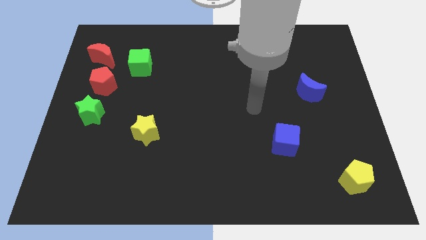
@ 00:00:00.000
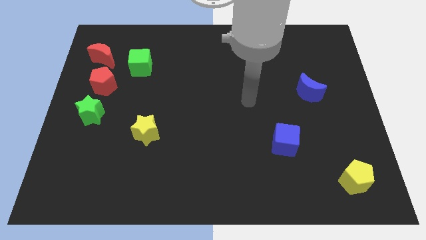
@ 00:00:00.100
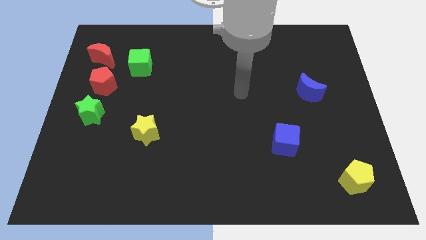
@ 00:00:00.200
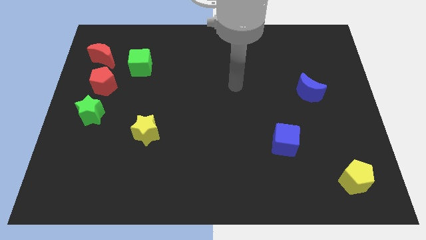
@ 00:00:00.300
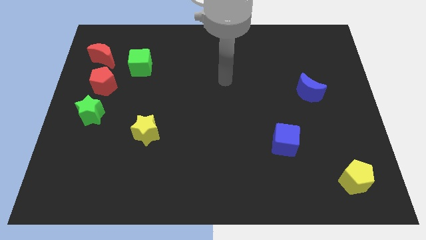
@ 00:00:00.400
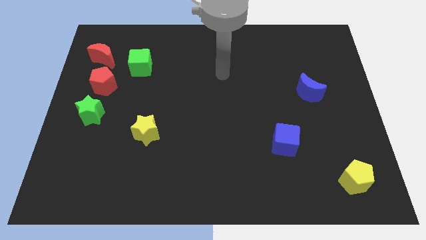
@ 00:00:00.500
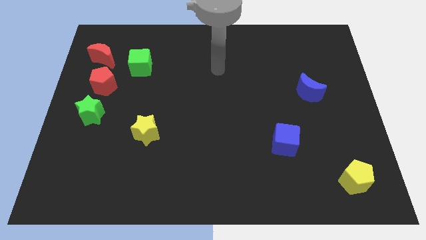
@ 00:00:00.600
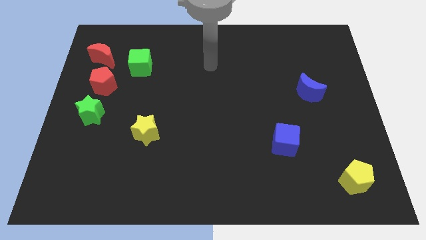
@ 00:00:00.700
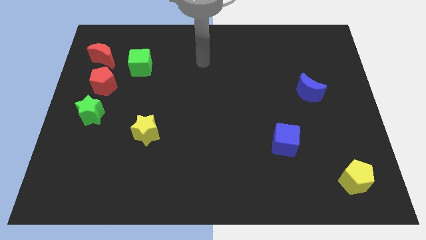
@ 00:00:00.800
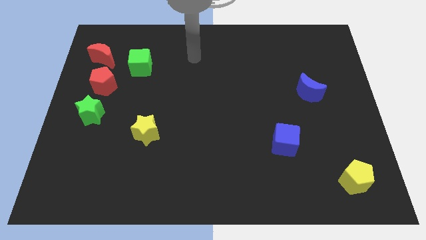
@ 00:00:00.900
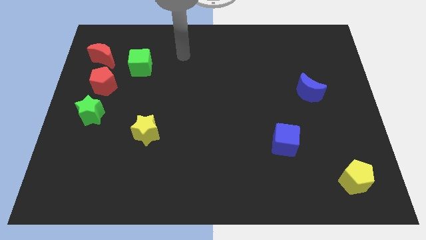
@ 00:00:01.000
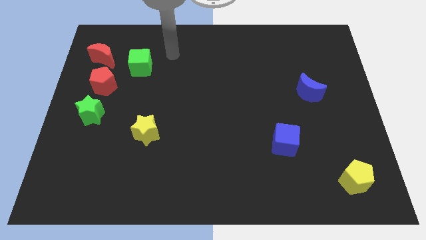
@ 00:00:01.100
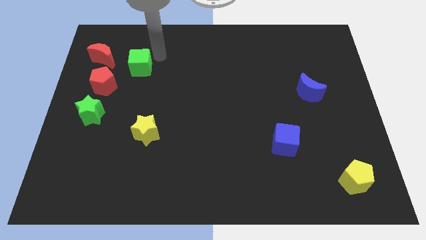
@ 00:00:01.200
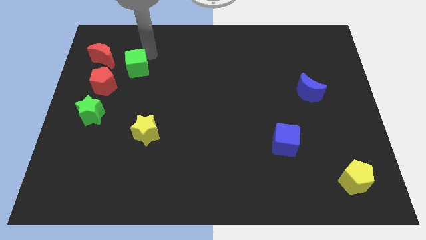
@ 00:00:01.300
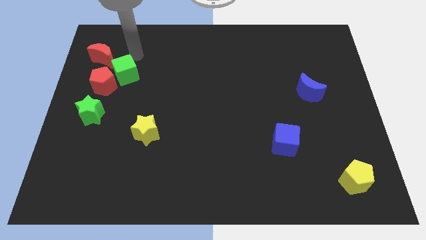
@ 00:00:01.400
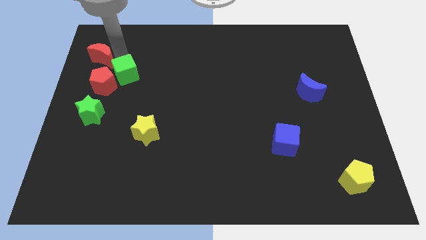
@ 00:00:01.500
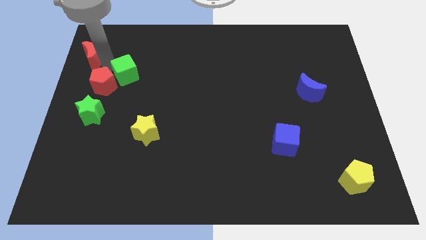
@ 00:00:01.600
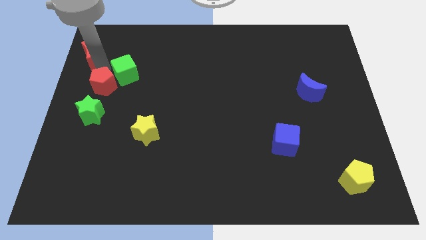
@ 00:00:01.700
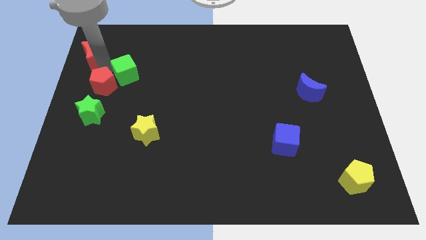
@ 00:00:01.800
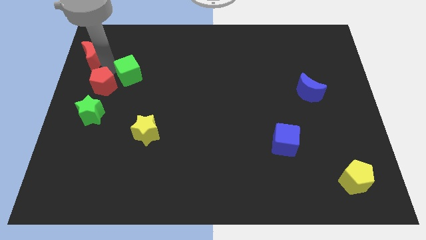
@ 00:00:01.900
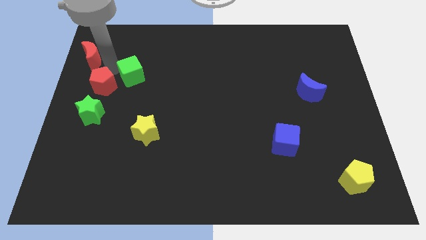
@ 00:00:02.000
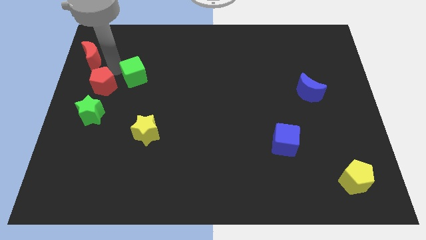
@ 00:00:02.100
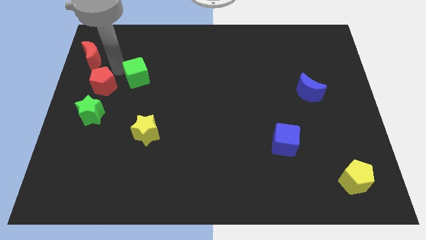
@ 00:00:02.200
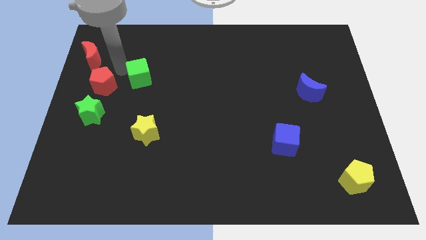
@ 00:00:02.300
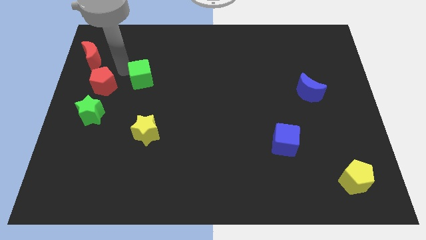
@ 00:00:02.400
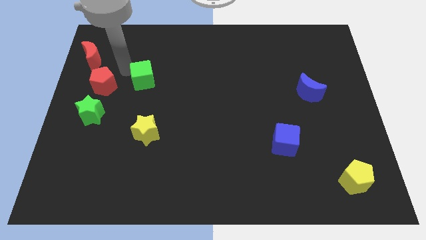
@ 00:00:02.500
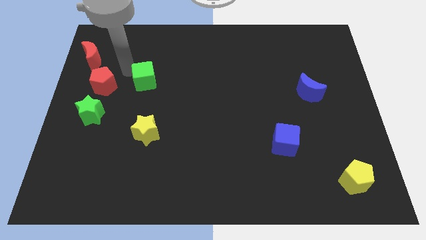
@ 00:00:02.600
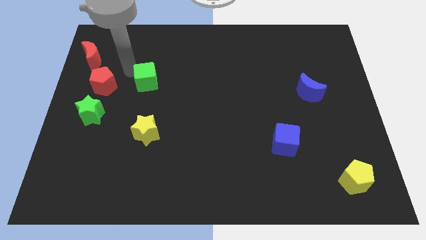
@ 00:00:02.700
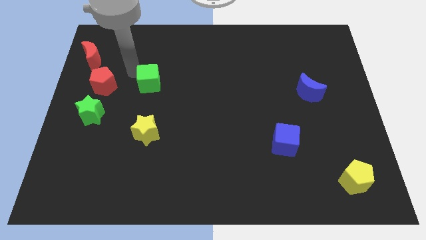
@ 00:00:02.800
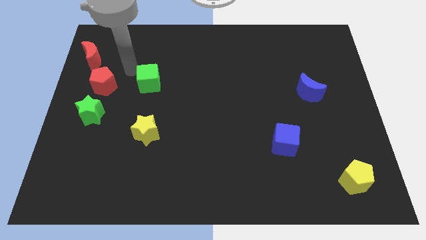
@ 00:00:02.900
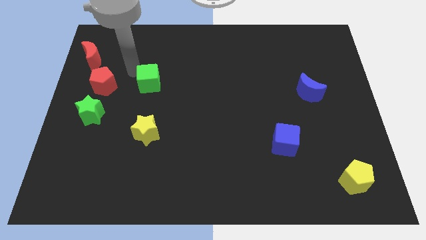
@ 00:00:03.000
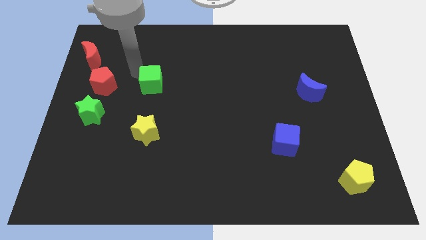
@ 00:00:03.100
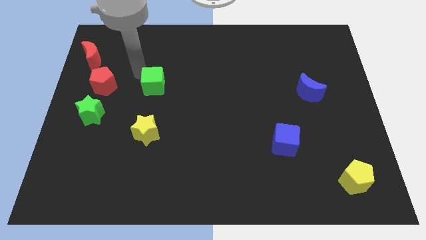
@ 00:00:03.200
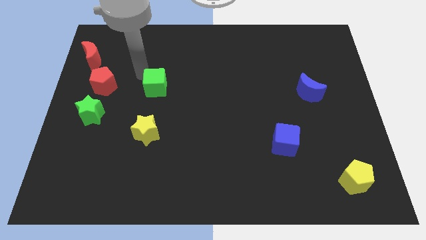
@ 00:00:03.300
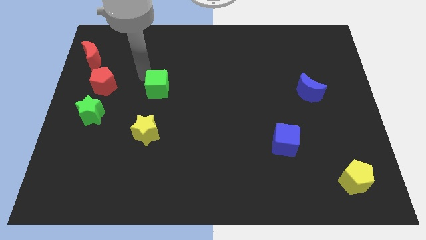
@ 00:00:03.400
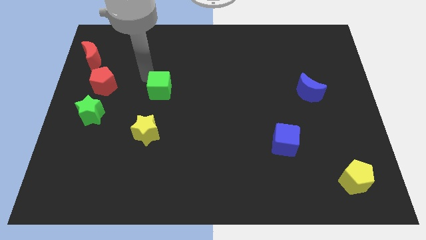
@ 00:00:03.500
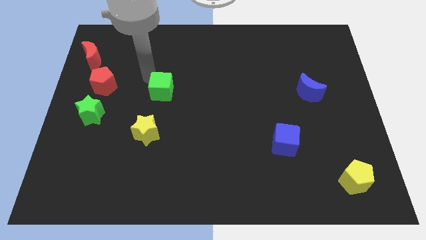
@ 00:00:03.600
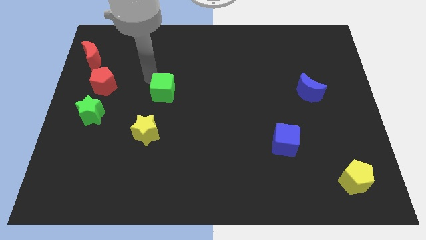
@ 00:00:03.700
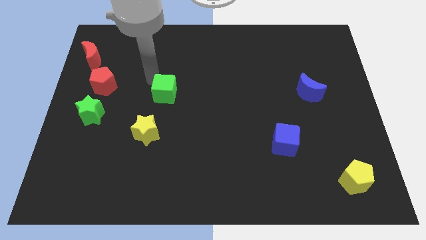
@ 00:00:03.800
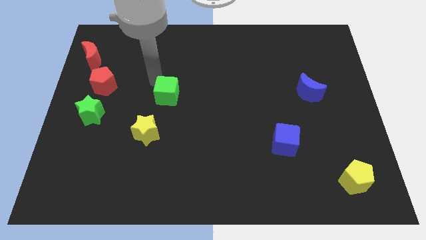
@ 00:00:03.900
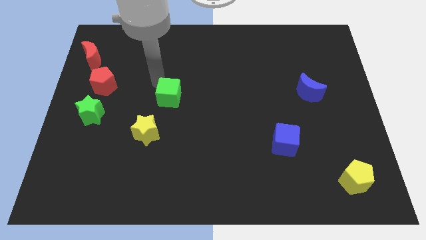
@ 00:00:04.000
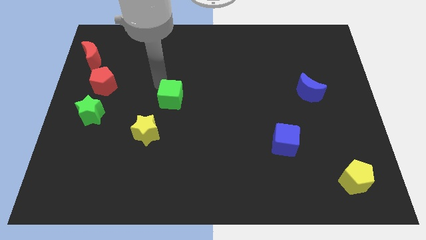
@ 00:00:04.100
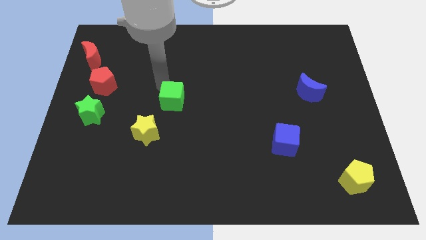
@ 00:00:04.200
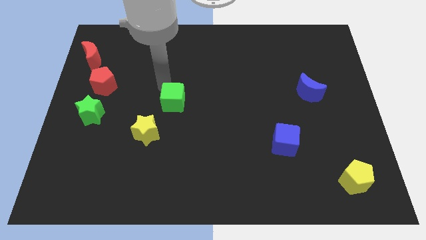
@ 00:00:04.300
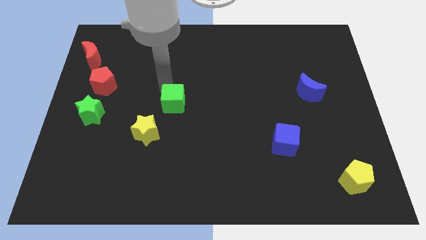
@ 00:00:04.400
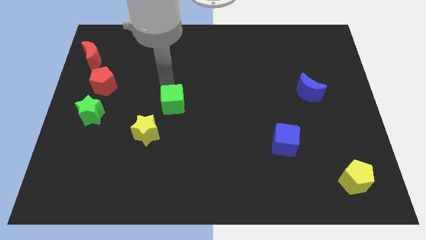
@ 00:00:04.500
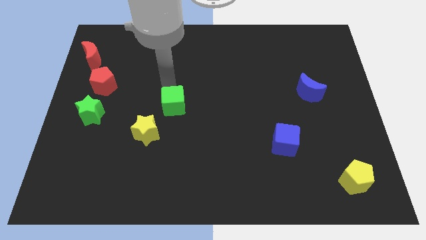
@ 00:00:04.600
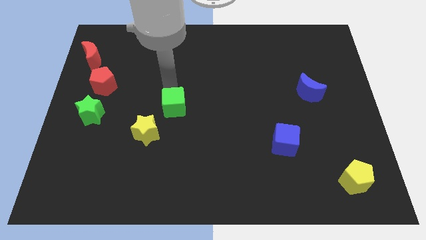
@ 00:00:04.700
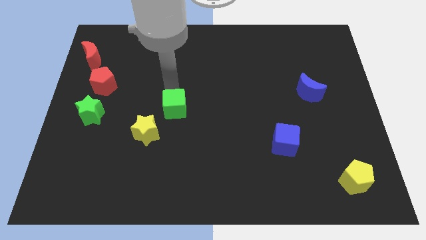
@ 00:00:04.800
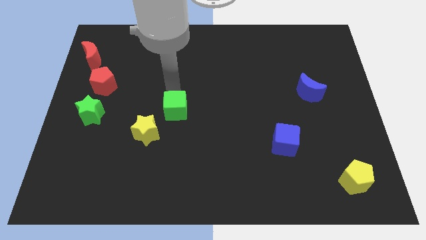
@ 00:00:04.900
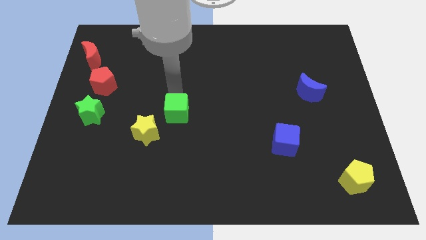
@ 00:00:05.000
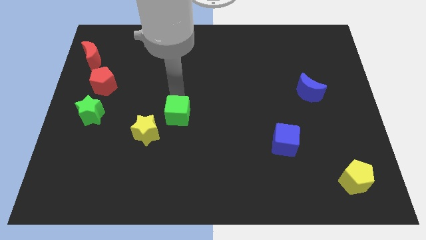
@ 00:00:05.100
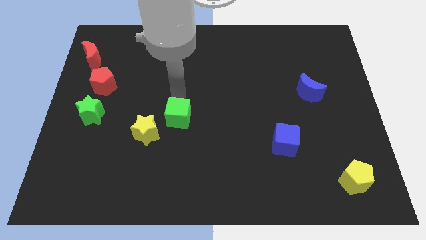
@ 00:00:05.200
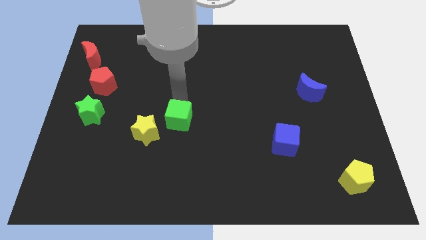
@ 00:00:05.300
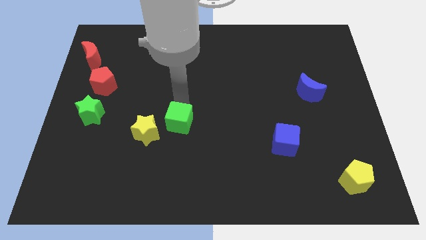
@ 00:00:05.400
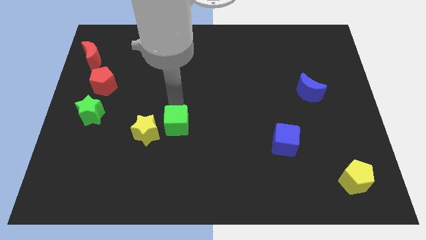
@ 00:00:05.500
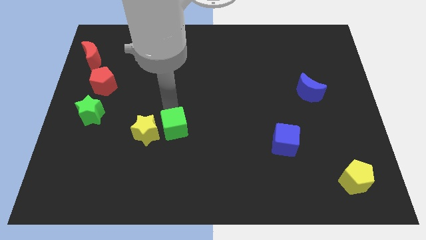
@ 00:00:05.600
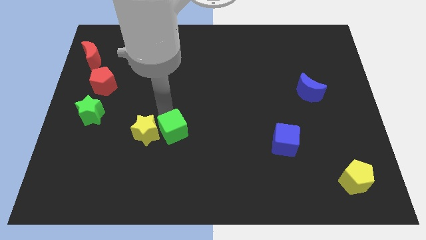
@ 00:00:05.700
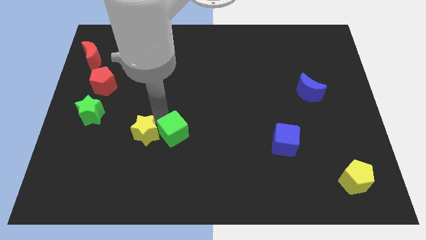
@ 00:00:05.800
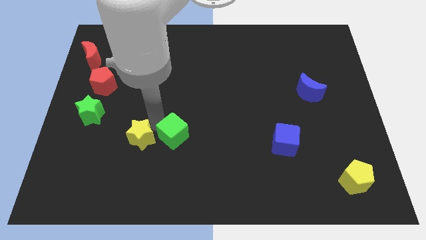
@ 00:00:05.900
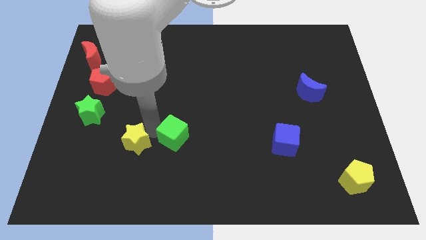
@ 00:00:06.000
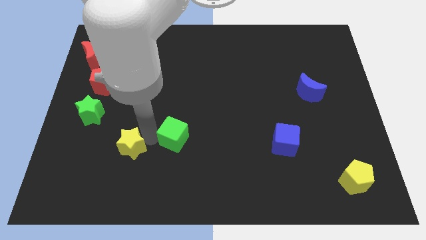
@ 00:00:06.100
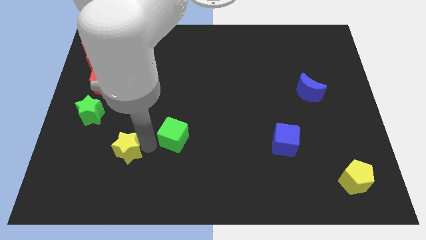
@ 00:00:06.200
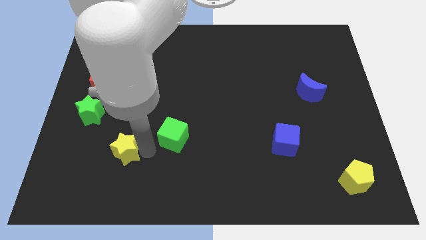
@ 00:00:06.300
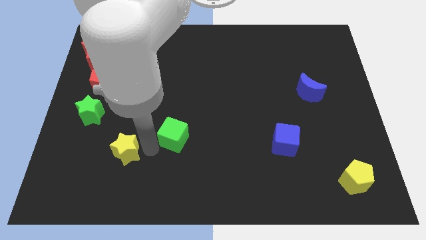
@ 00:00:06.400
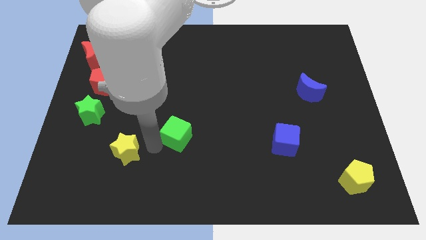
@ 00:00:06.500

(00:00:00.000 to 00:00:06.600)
push the green cube diagonally downwards and to the right

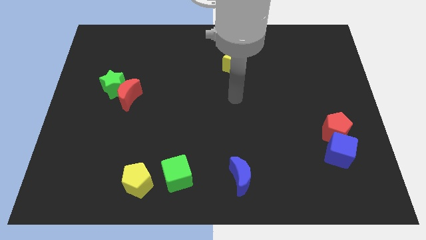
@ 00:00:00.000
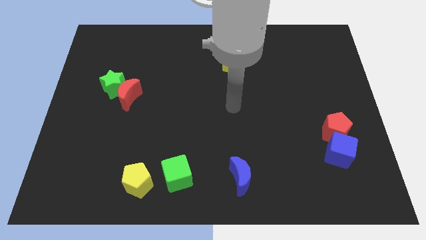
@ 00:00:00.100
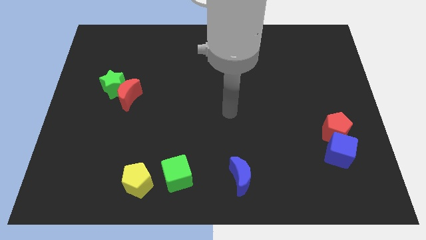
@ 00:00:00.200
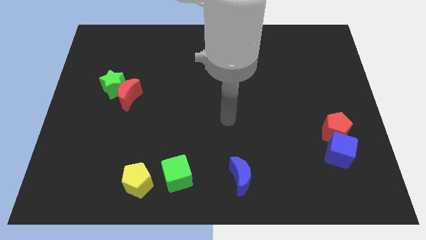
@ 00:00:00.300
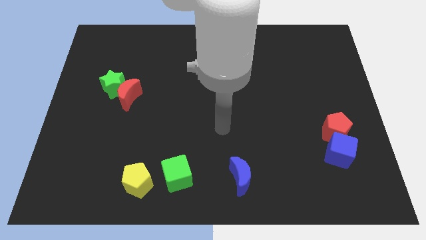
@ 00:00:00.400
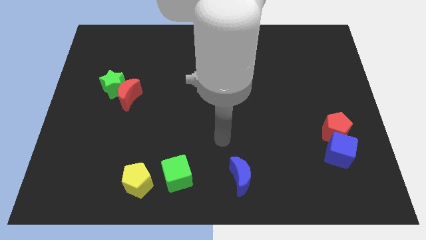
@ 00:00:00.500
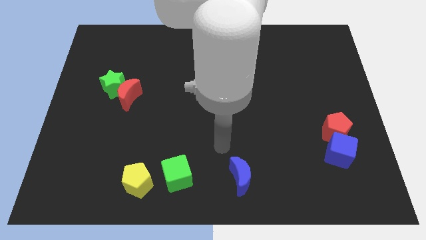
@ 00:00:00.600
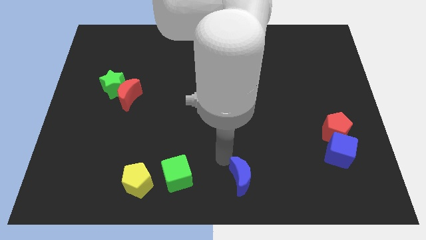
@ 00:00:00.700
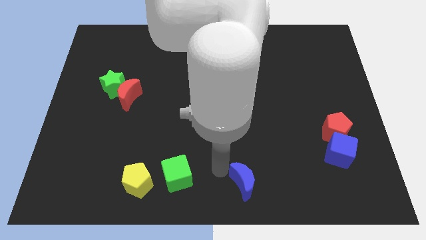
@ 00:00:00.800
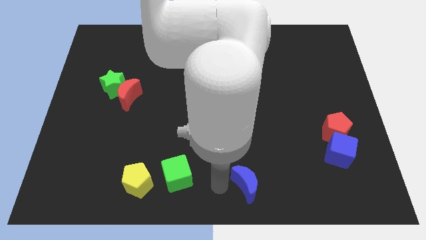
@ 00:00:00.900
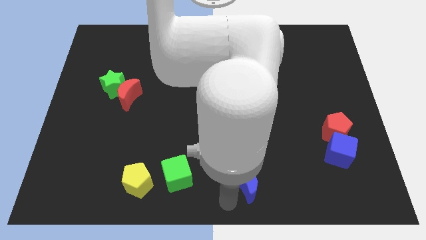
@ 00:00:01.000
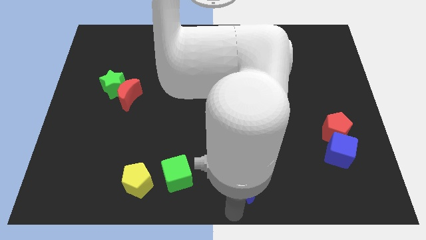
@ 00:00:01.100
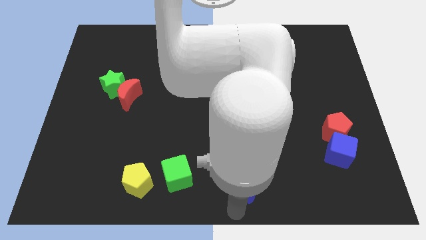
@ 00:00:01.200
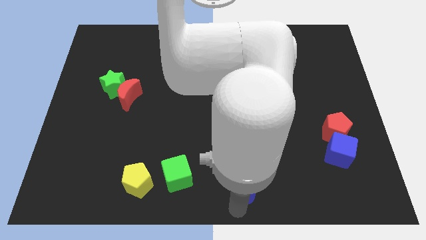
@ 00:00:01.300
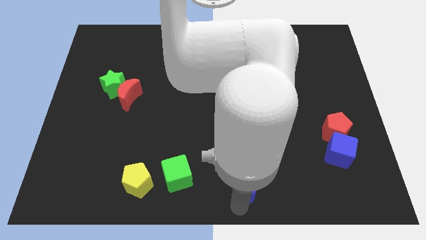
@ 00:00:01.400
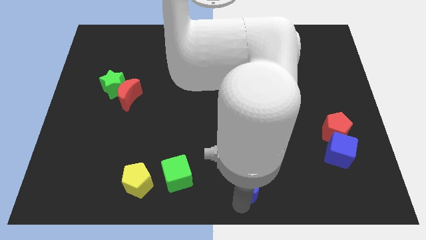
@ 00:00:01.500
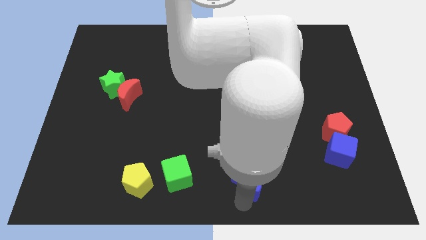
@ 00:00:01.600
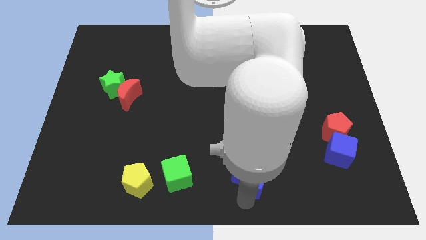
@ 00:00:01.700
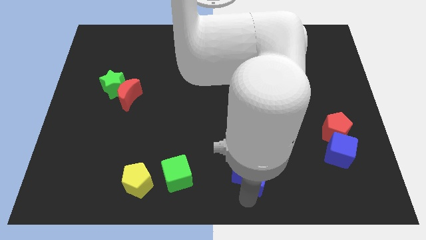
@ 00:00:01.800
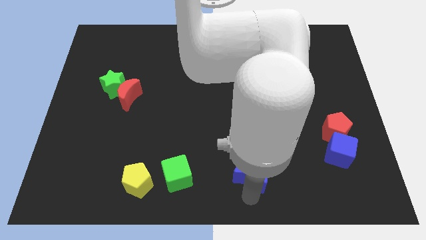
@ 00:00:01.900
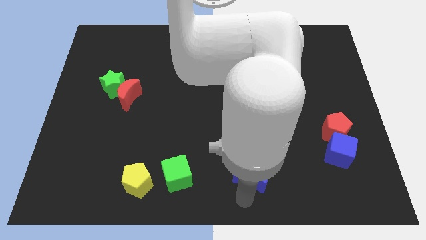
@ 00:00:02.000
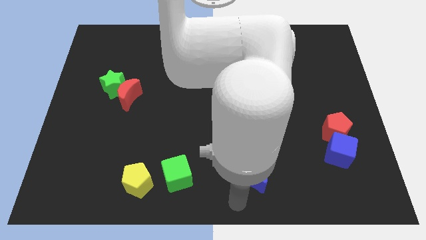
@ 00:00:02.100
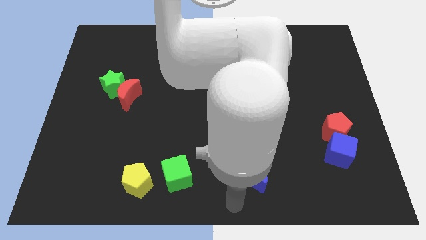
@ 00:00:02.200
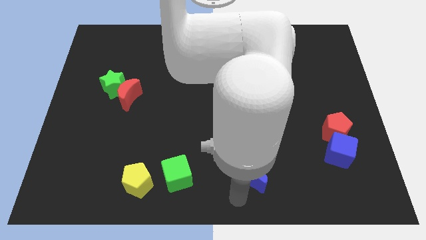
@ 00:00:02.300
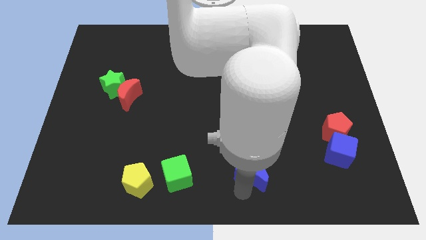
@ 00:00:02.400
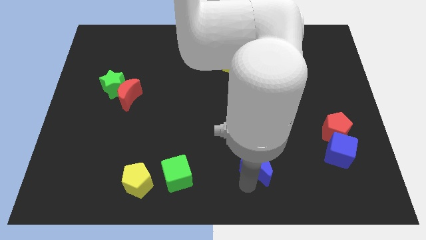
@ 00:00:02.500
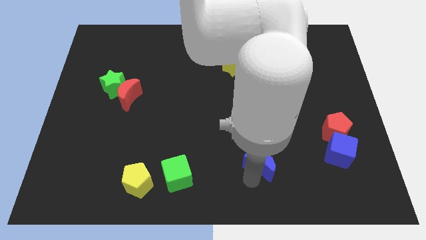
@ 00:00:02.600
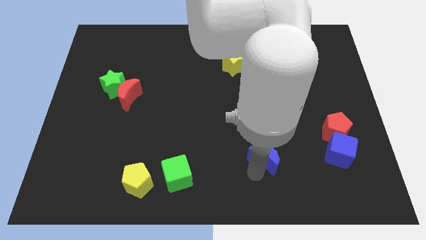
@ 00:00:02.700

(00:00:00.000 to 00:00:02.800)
move the blue moon a little bit upwards and to the right
